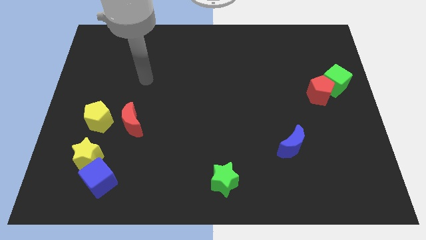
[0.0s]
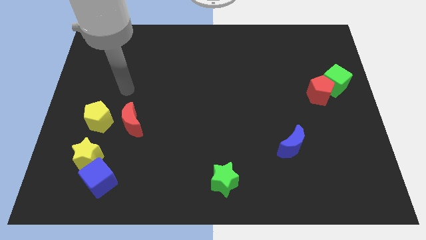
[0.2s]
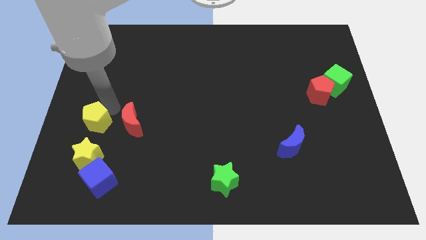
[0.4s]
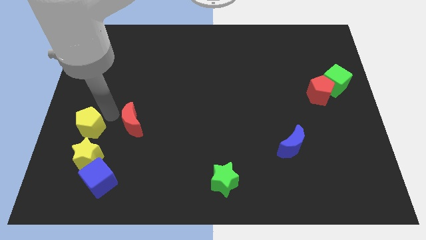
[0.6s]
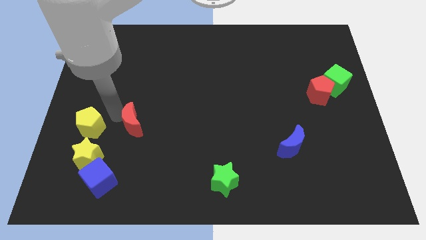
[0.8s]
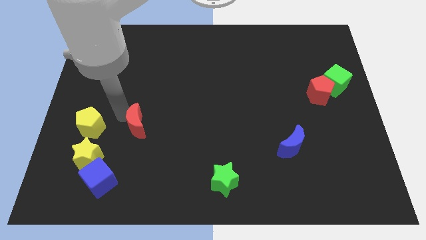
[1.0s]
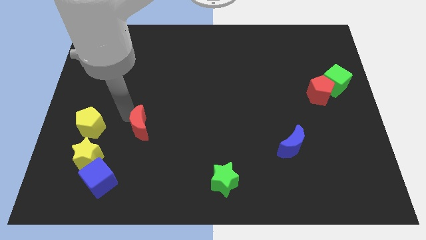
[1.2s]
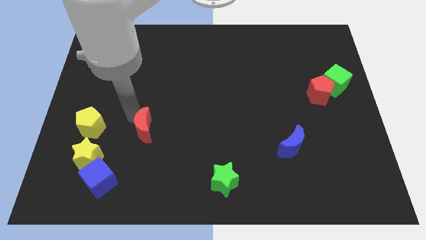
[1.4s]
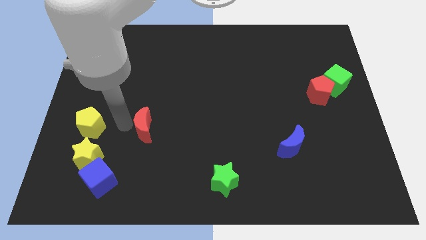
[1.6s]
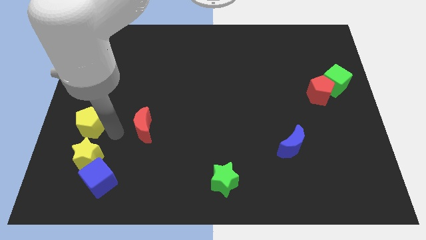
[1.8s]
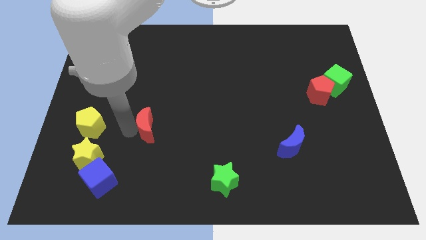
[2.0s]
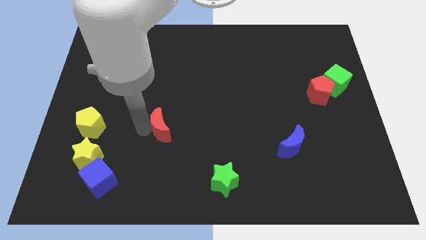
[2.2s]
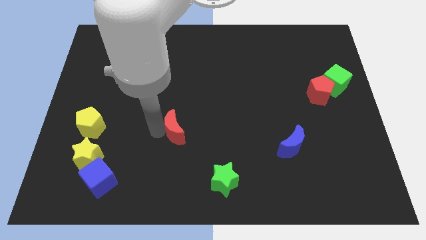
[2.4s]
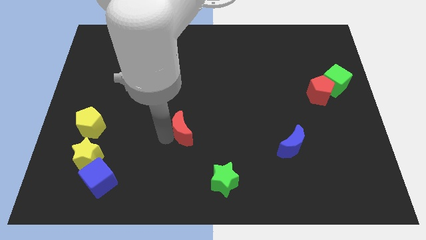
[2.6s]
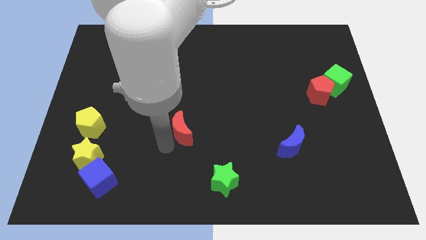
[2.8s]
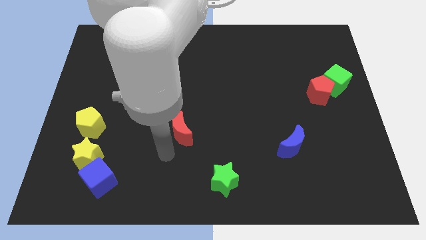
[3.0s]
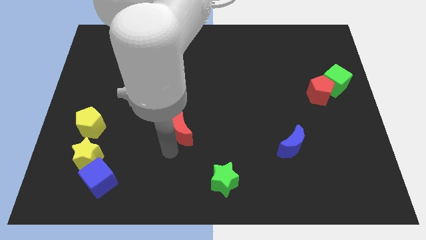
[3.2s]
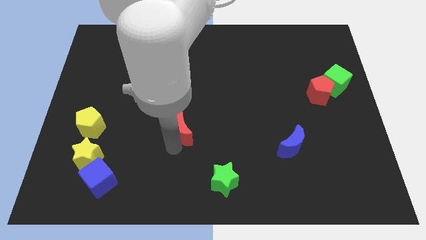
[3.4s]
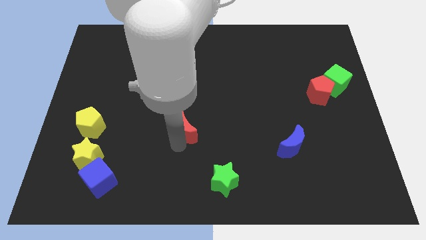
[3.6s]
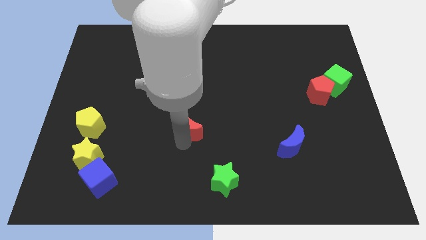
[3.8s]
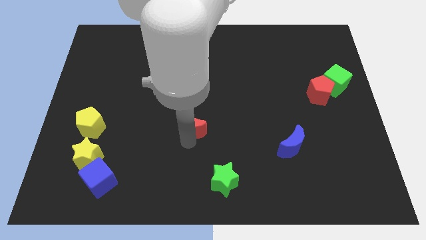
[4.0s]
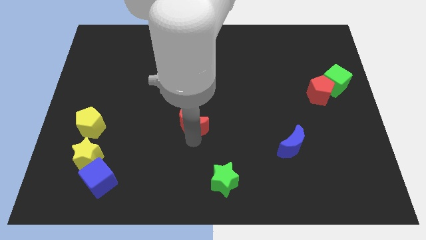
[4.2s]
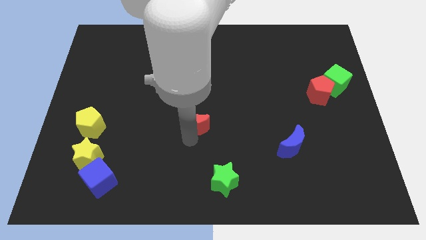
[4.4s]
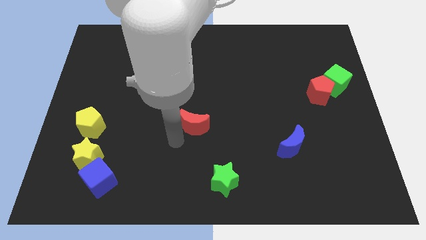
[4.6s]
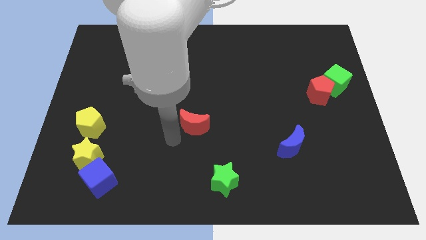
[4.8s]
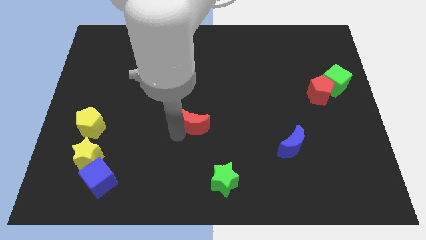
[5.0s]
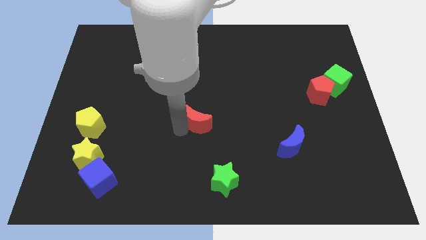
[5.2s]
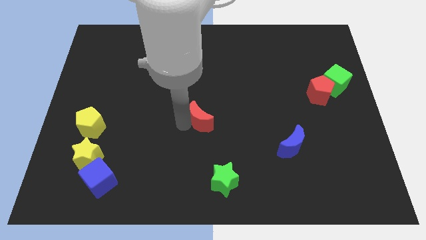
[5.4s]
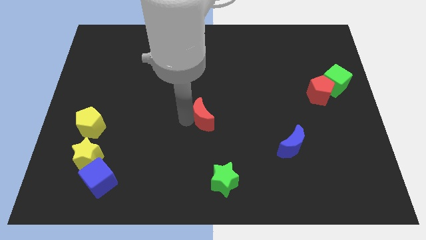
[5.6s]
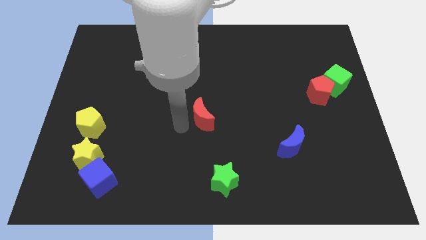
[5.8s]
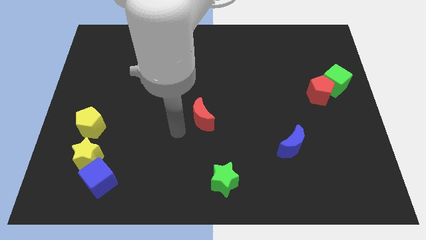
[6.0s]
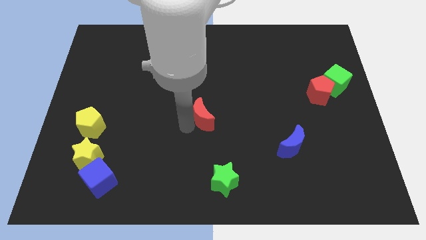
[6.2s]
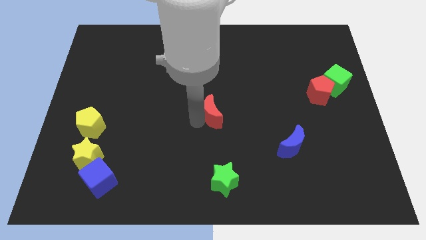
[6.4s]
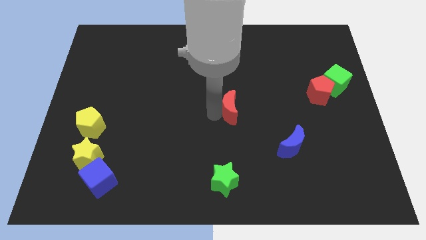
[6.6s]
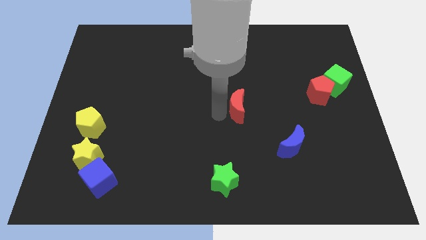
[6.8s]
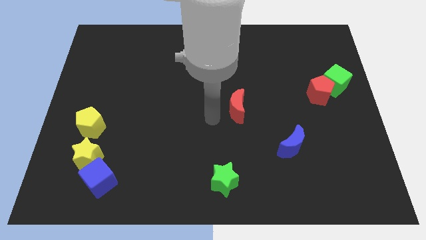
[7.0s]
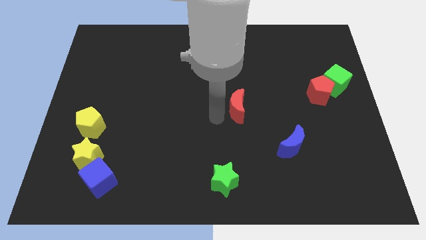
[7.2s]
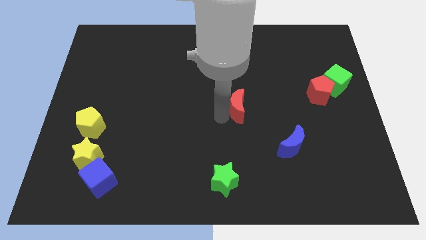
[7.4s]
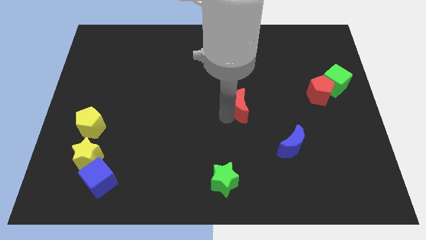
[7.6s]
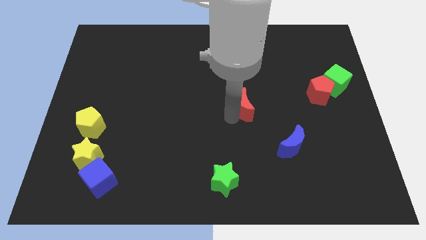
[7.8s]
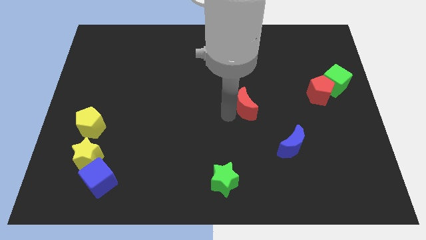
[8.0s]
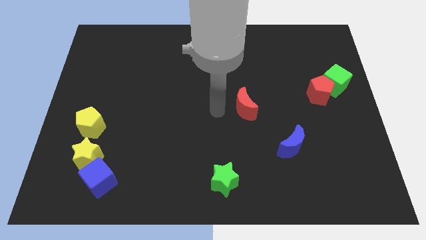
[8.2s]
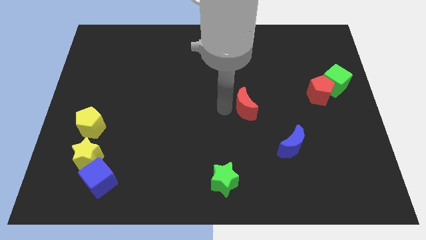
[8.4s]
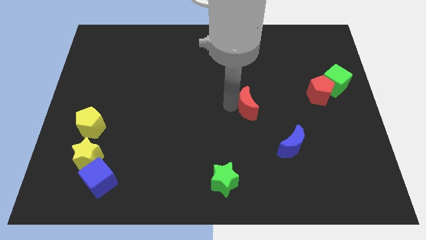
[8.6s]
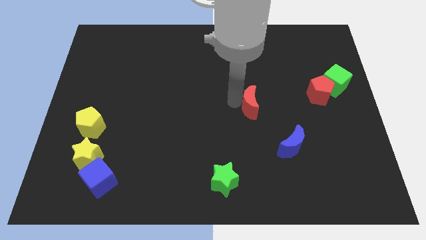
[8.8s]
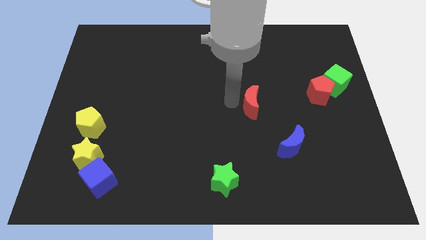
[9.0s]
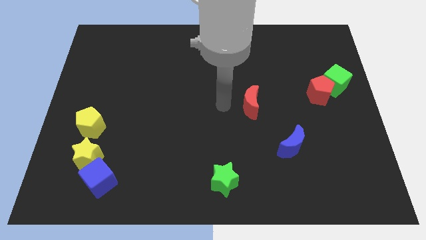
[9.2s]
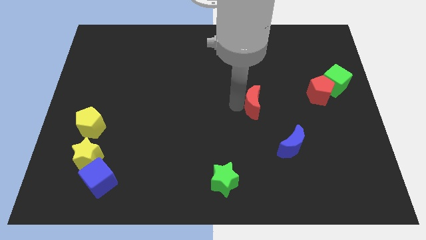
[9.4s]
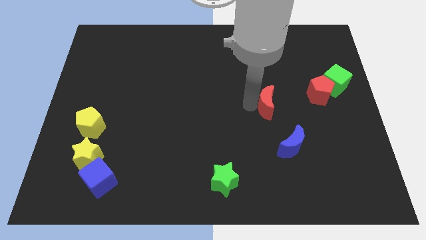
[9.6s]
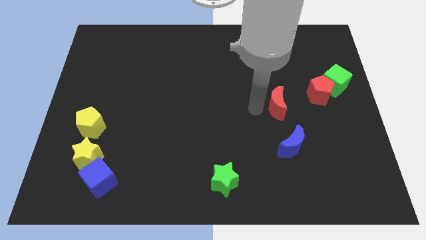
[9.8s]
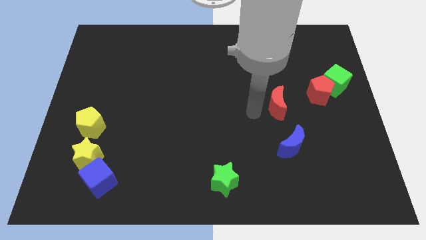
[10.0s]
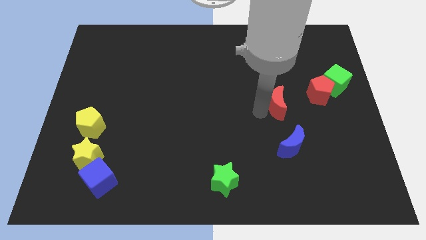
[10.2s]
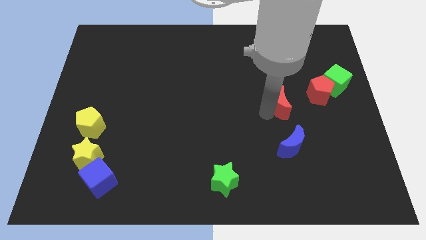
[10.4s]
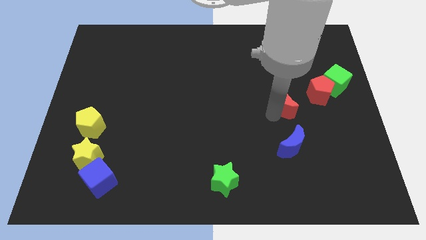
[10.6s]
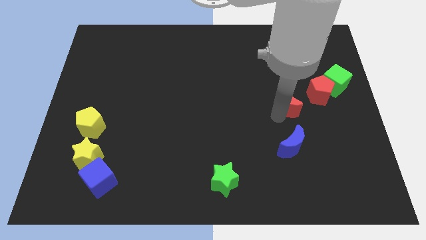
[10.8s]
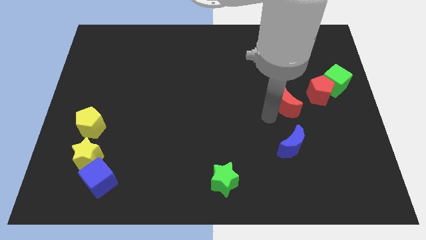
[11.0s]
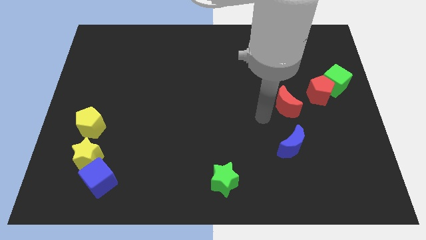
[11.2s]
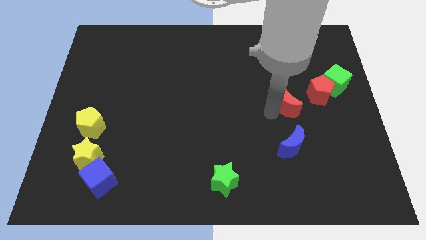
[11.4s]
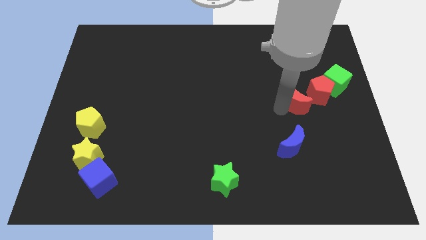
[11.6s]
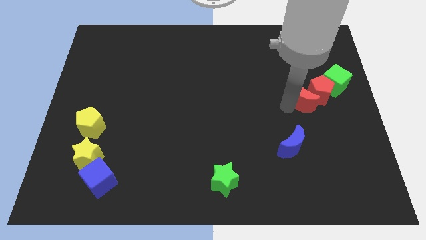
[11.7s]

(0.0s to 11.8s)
push the red moon to the red pentagon

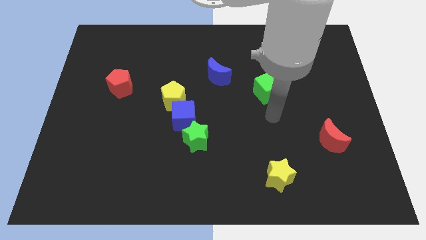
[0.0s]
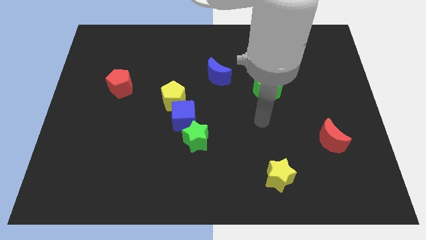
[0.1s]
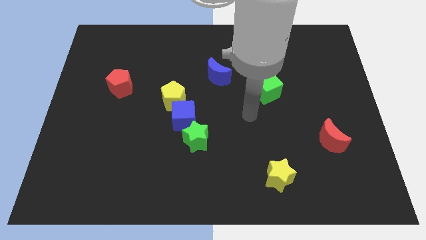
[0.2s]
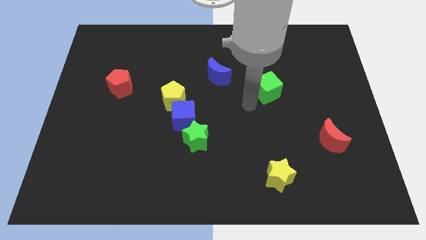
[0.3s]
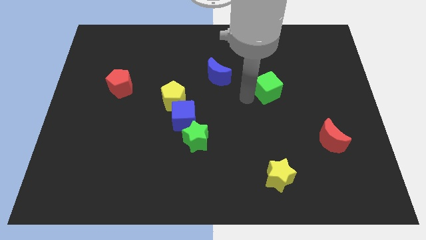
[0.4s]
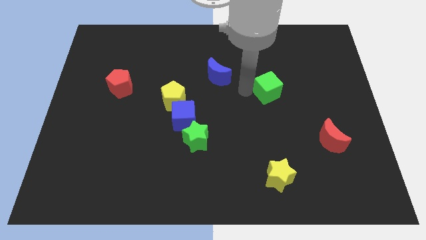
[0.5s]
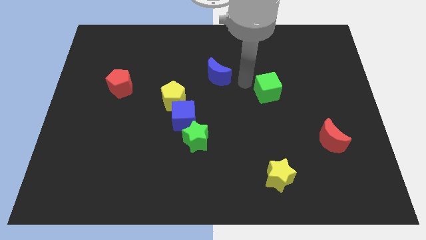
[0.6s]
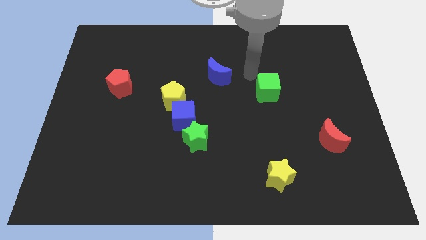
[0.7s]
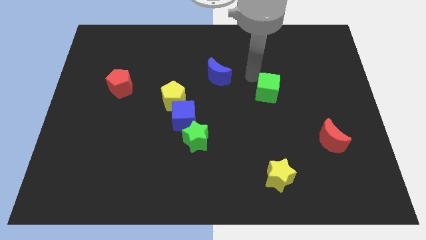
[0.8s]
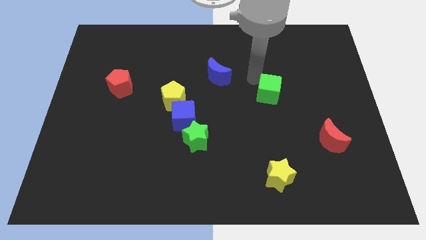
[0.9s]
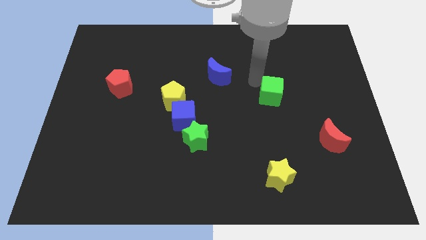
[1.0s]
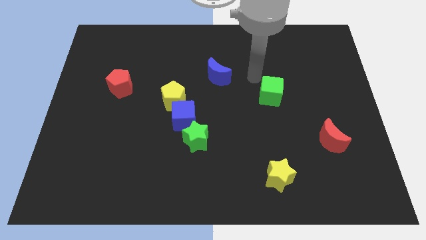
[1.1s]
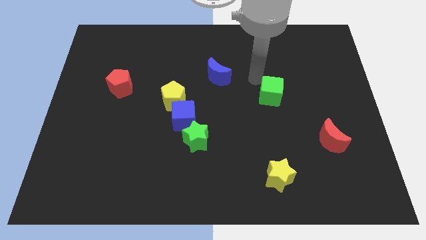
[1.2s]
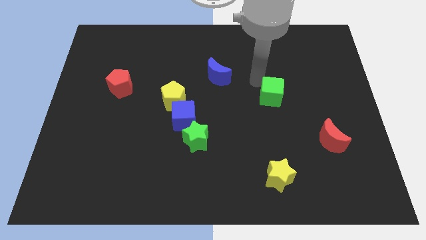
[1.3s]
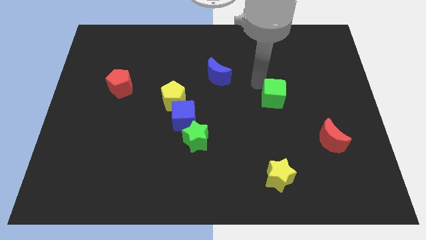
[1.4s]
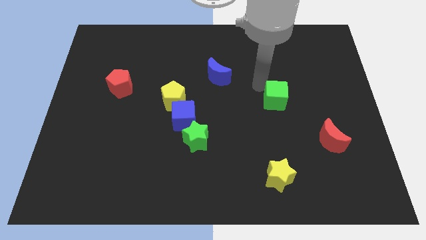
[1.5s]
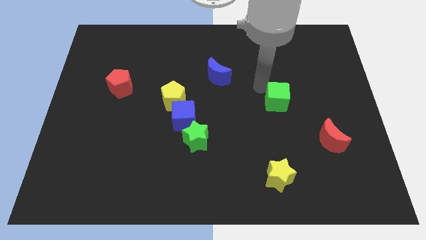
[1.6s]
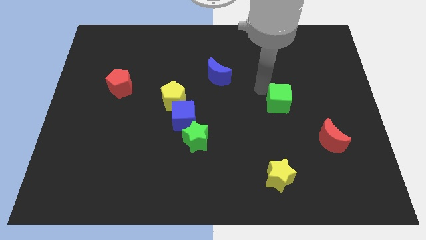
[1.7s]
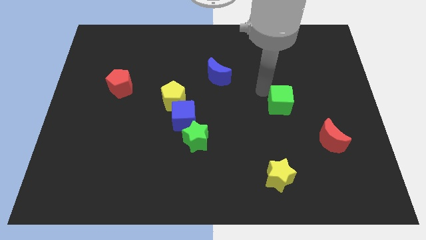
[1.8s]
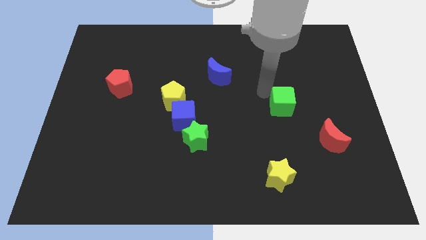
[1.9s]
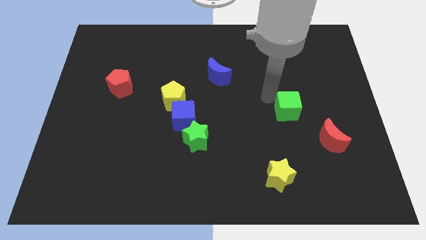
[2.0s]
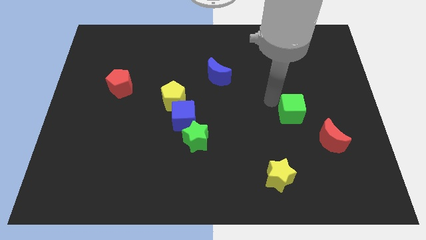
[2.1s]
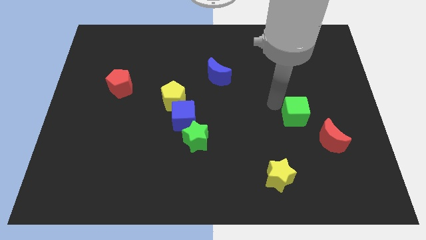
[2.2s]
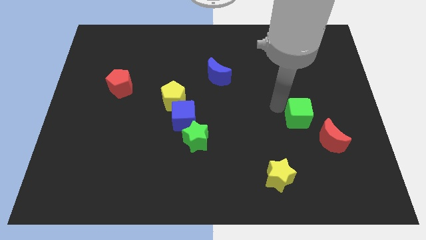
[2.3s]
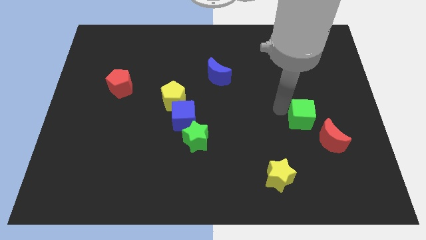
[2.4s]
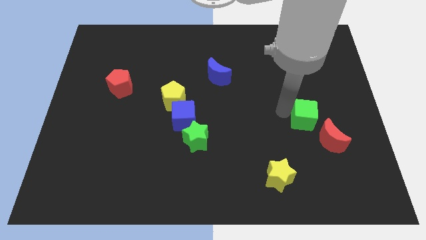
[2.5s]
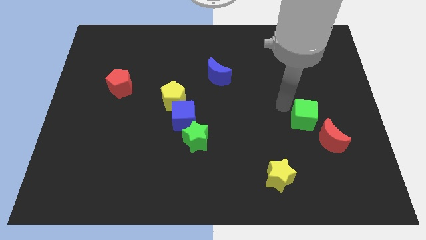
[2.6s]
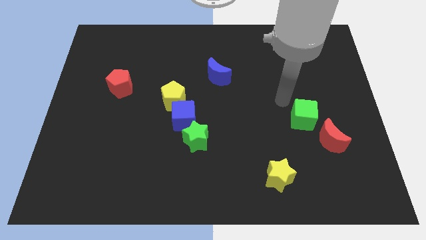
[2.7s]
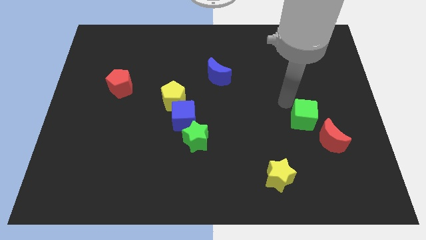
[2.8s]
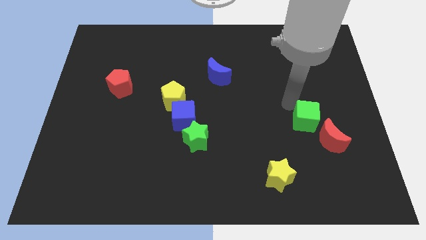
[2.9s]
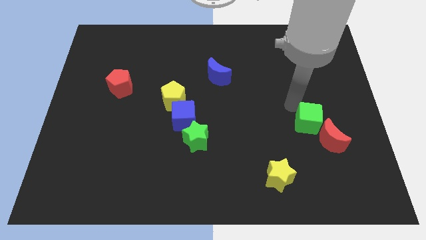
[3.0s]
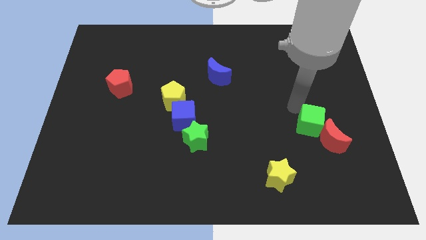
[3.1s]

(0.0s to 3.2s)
move the green cube next to the red moon
